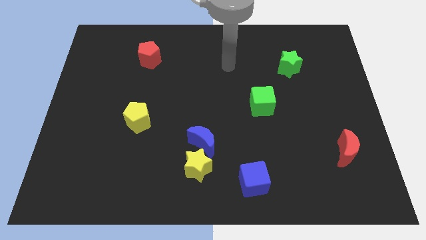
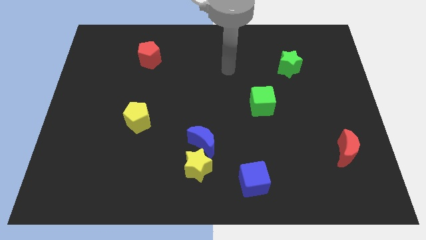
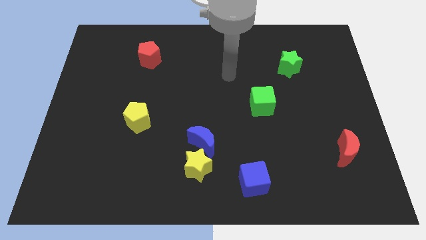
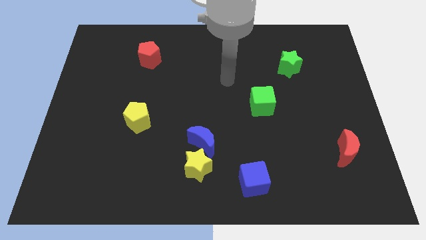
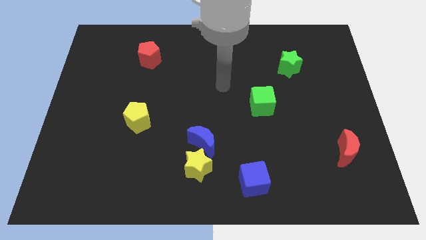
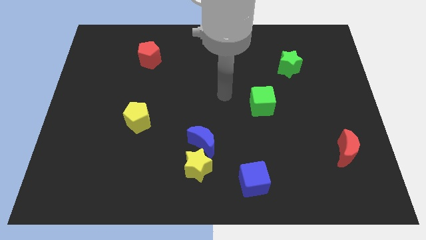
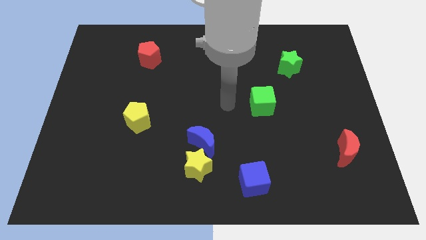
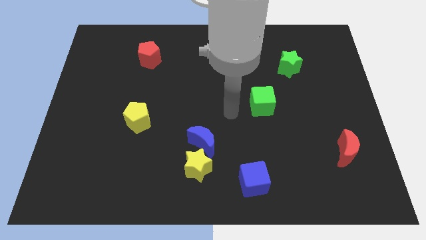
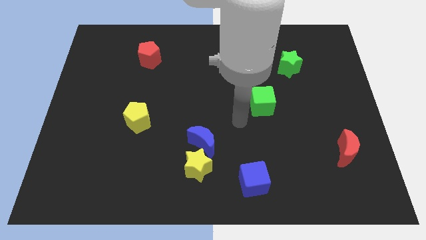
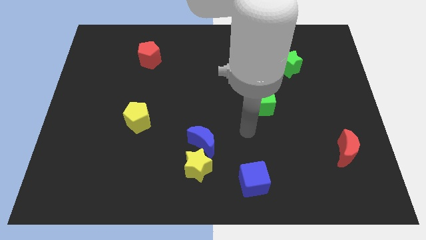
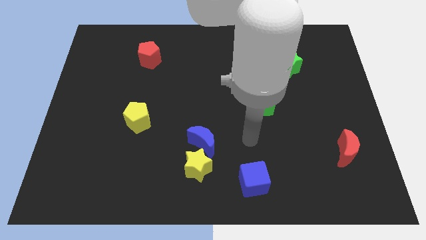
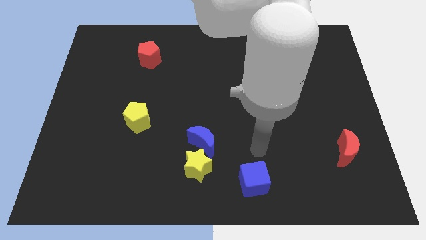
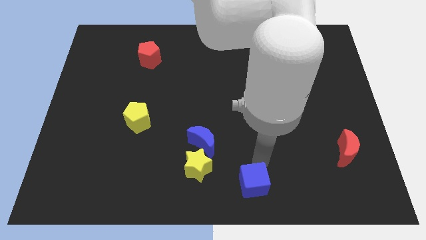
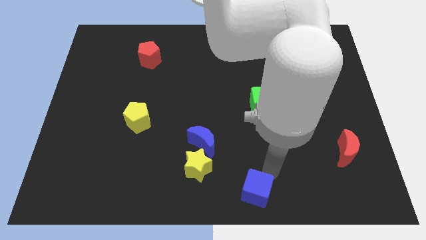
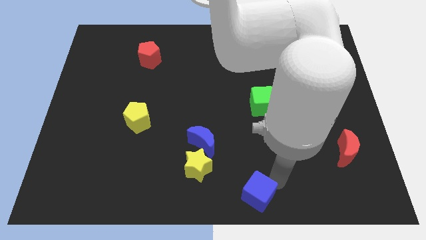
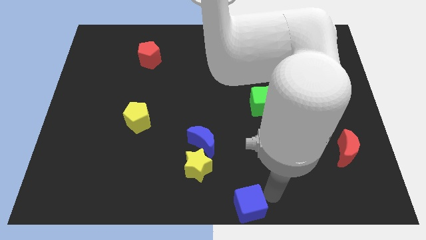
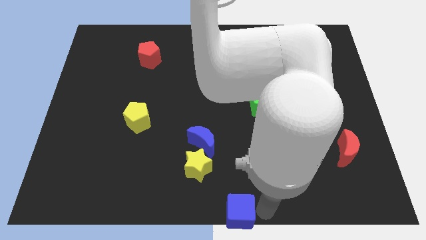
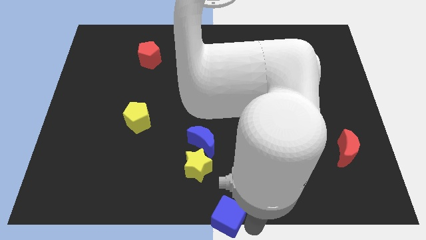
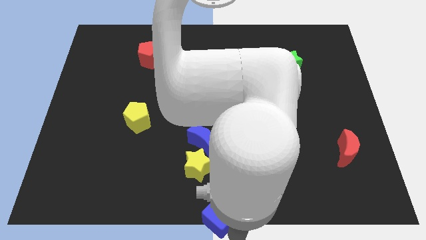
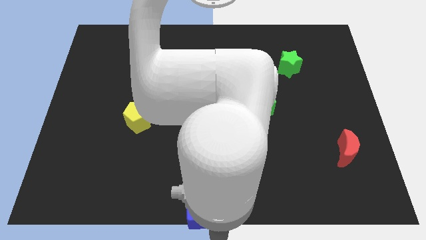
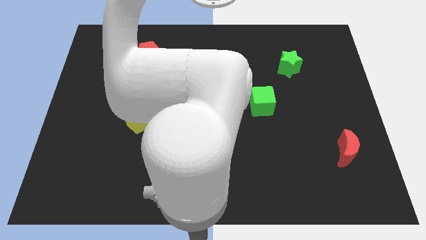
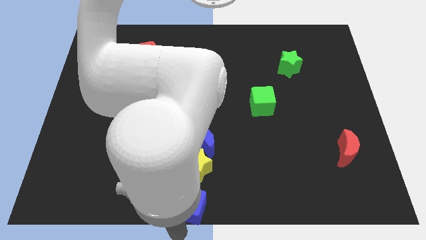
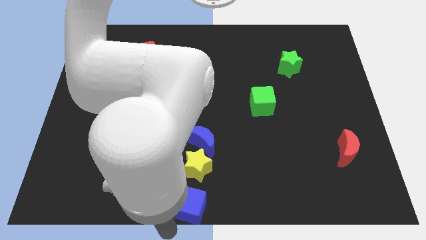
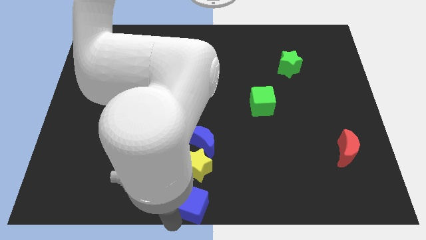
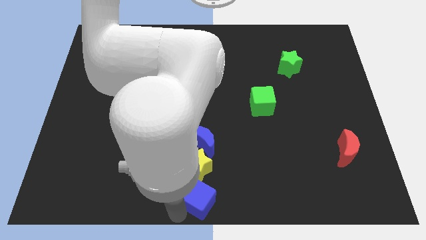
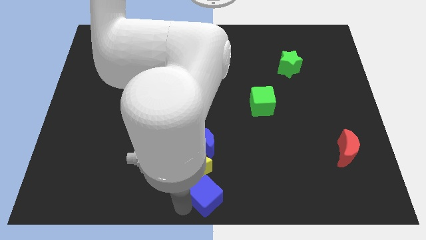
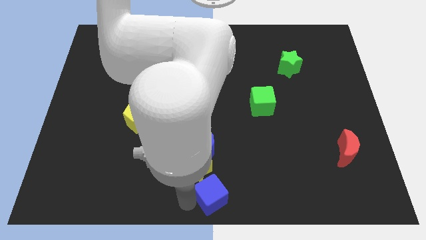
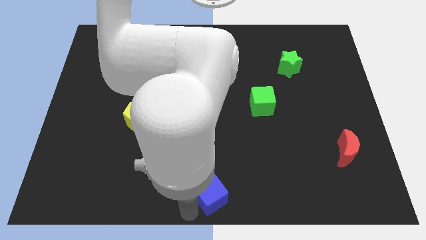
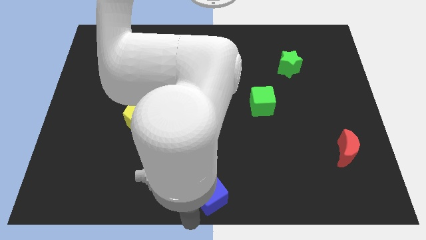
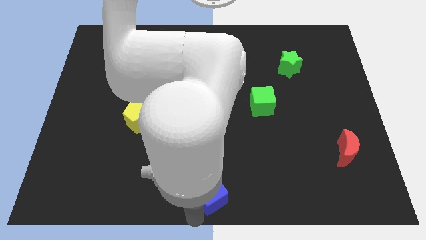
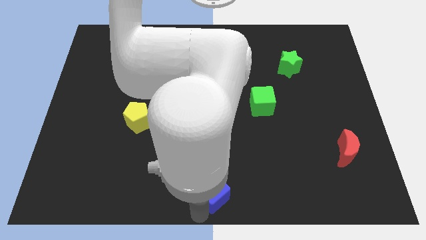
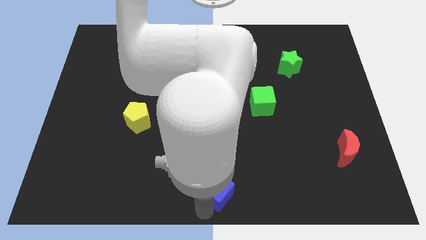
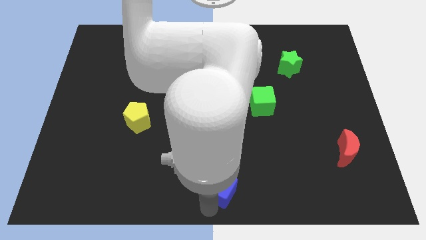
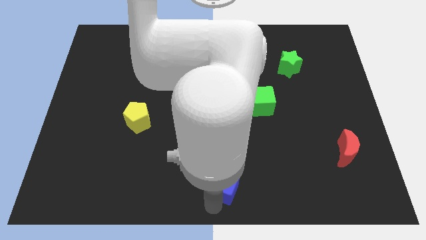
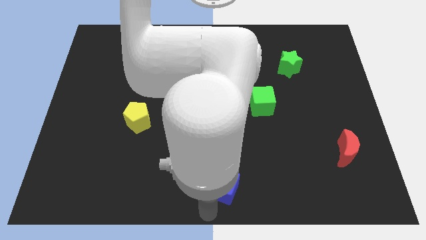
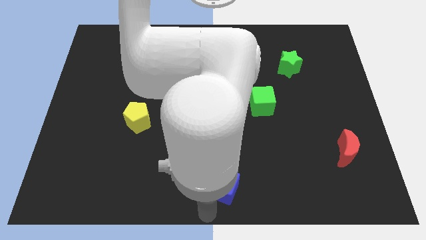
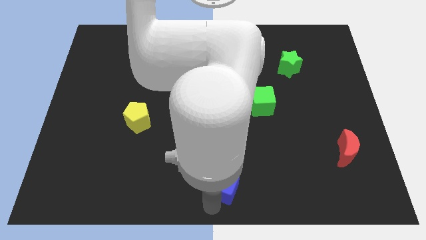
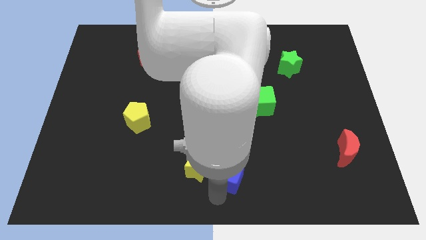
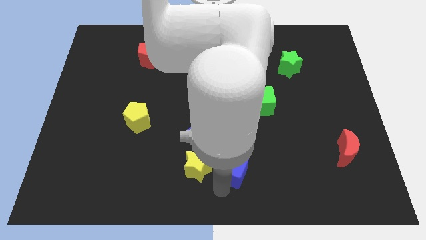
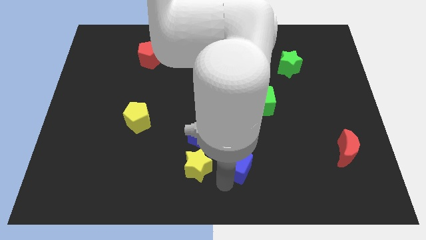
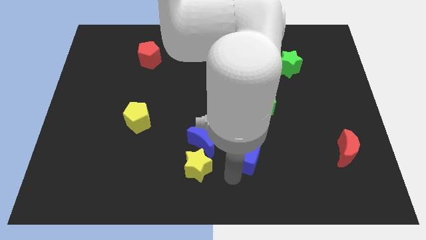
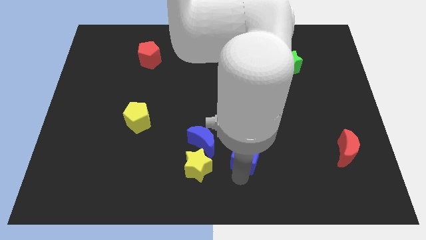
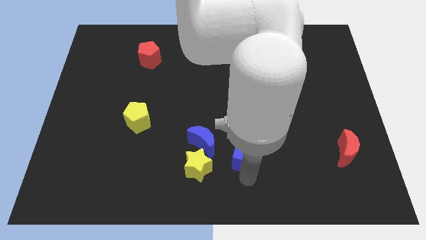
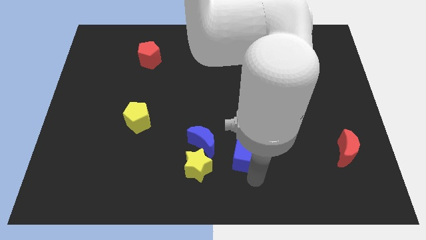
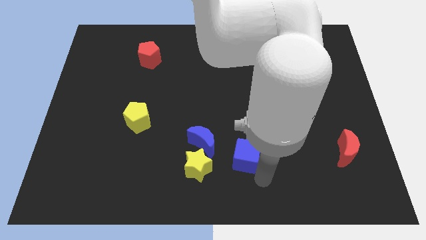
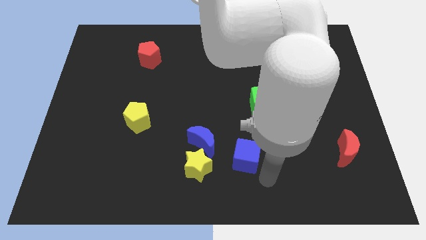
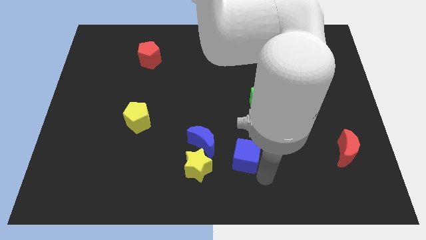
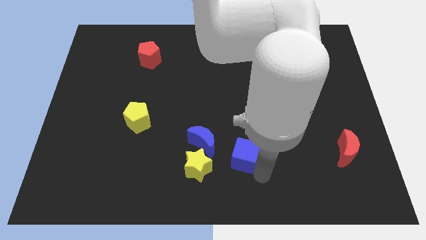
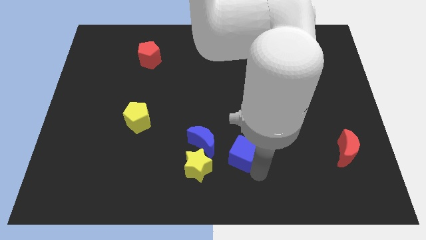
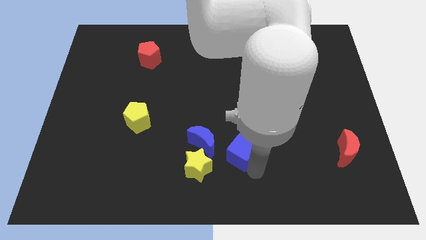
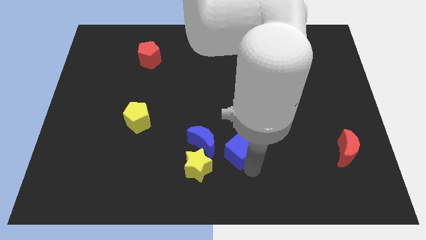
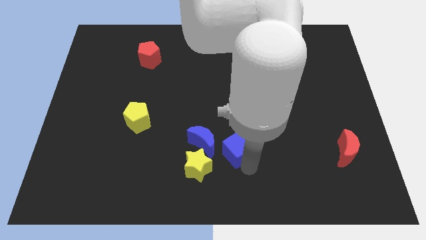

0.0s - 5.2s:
slightly slide the blue cube up and then to the left

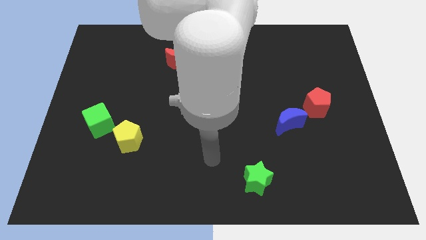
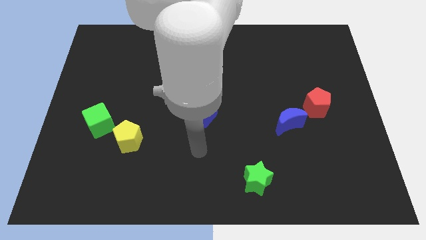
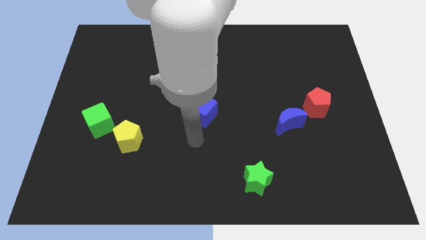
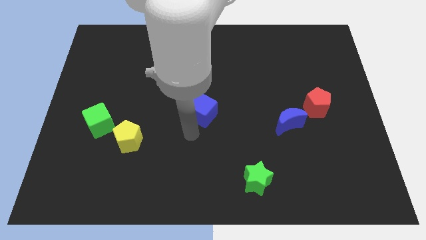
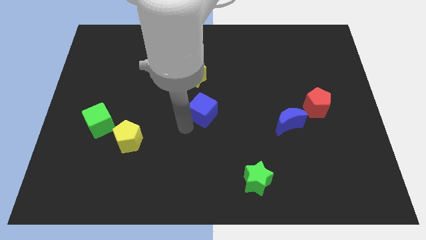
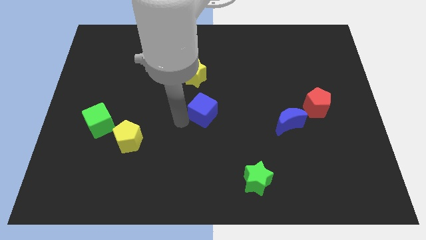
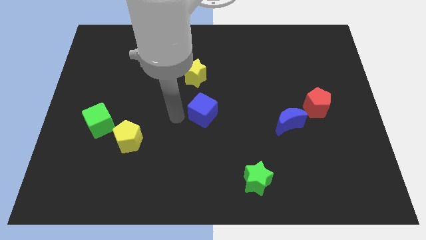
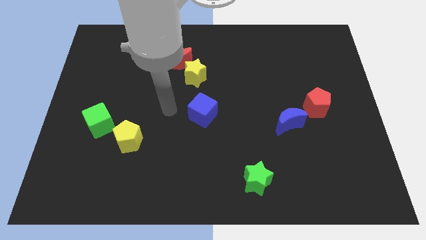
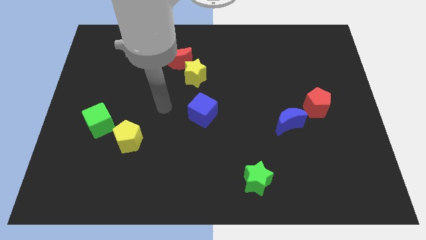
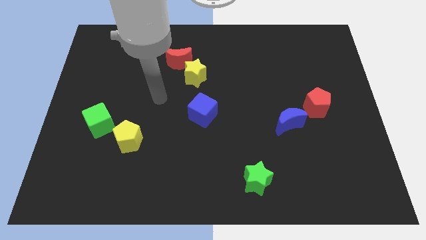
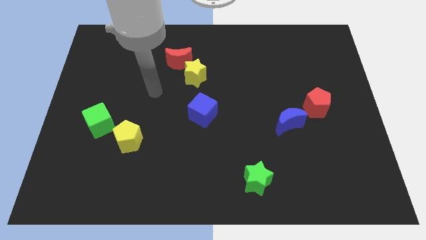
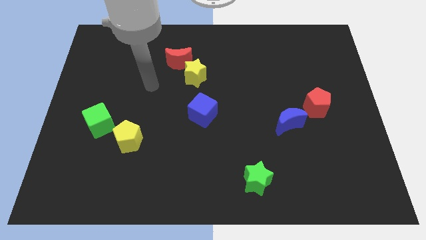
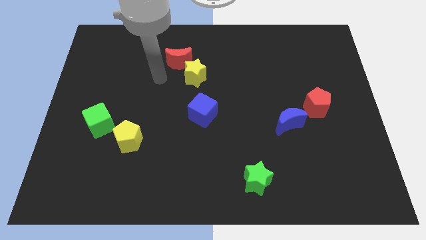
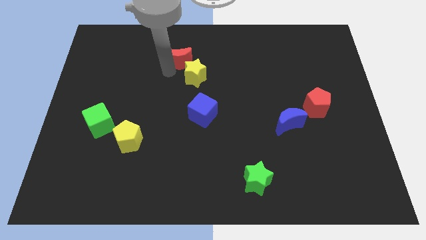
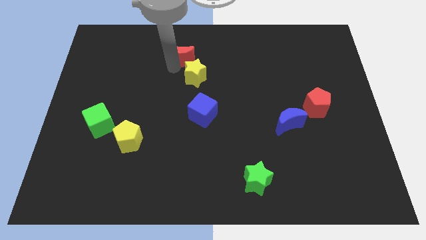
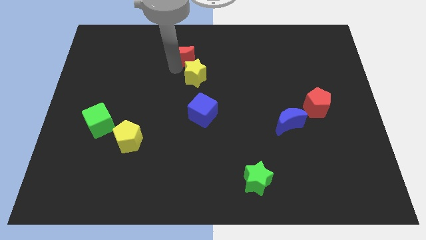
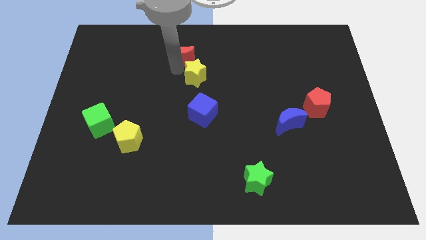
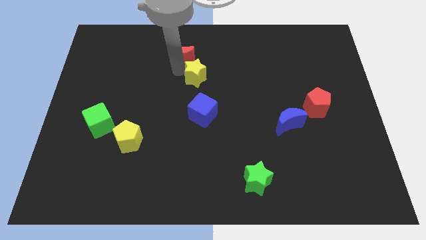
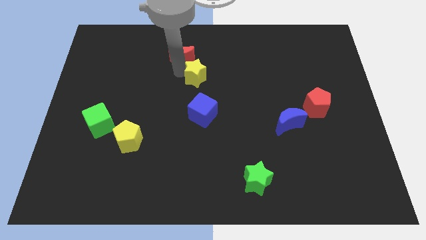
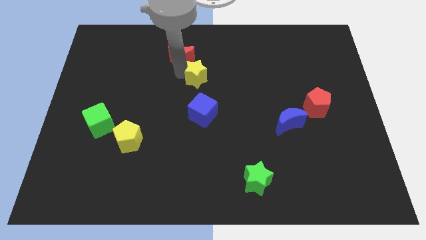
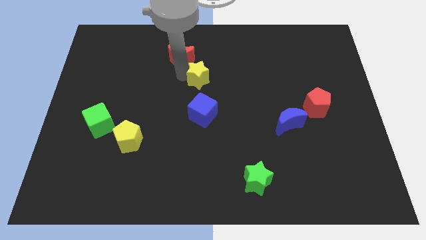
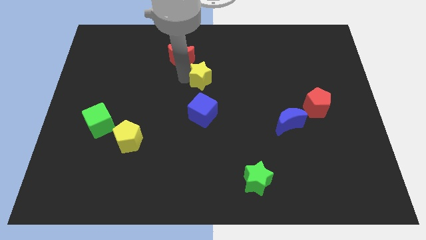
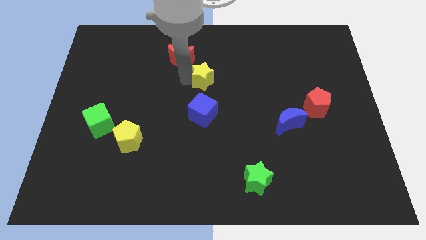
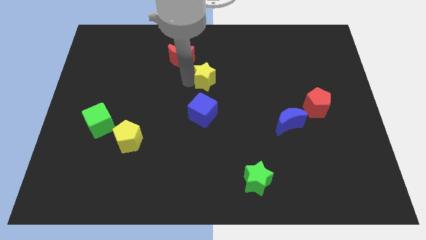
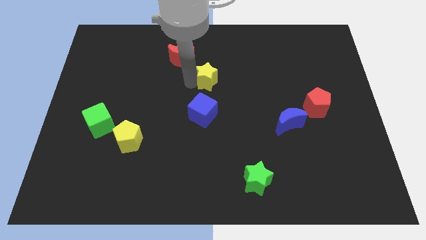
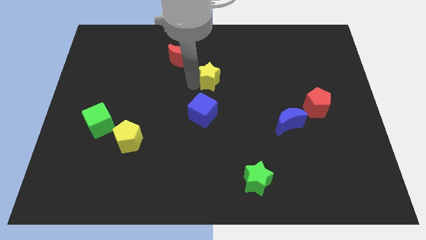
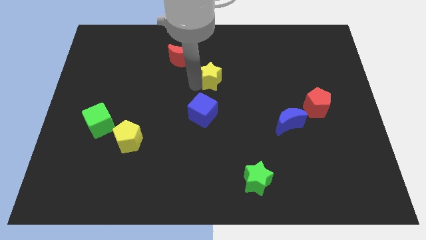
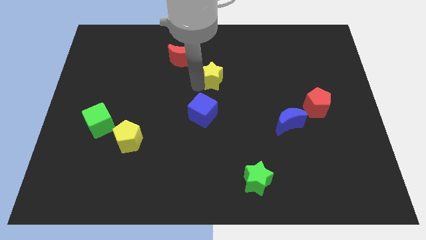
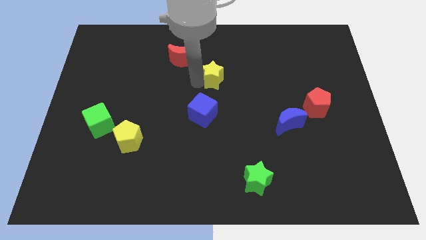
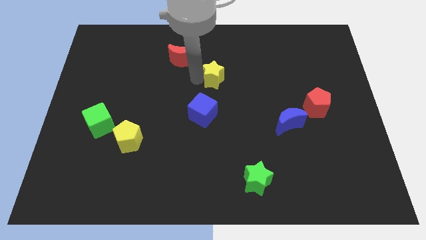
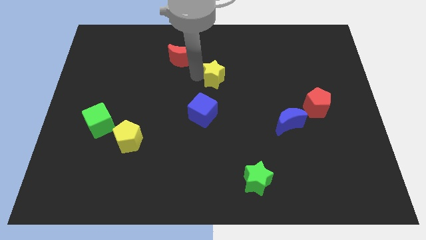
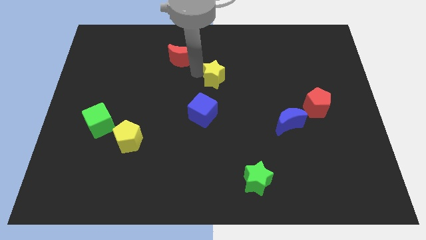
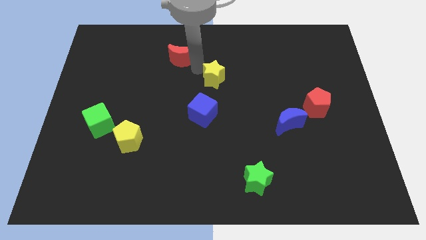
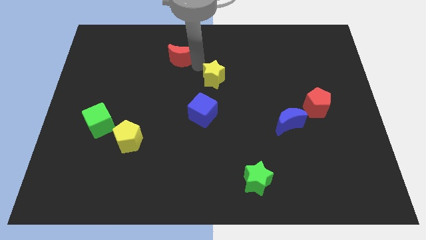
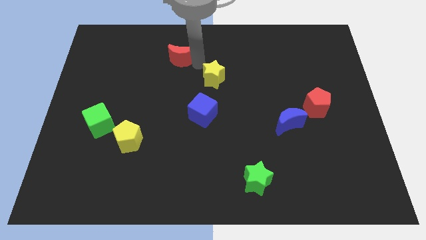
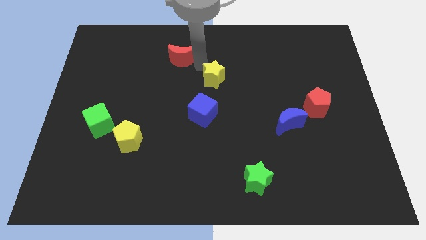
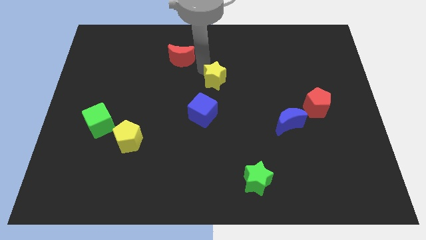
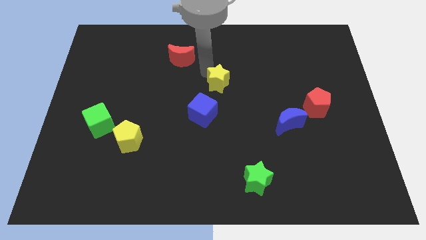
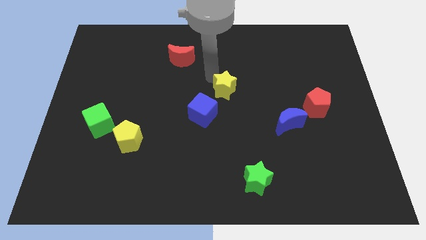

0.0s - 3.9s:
move the yellow star slightly downwards and right
